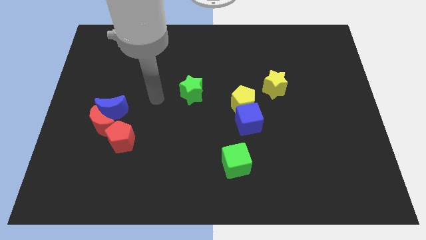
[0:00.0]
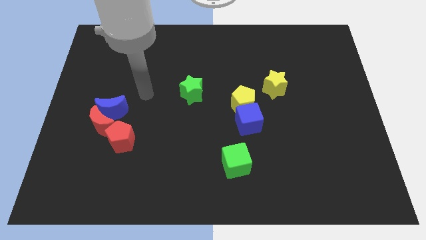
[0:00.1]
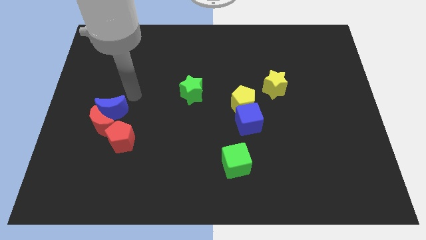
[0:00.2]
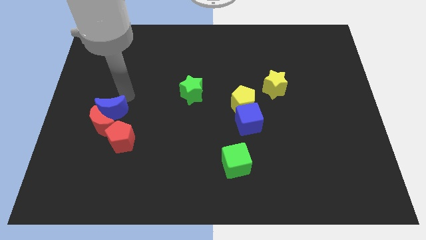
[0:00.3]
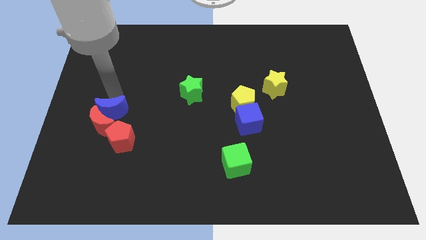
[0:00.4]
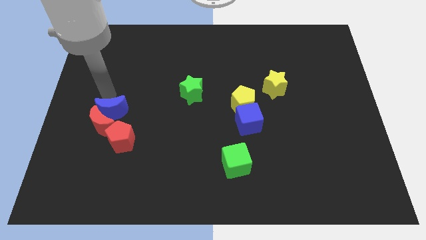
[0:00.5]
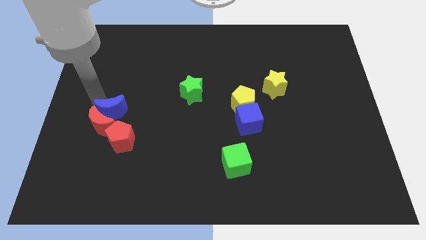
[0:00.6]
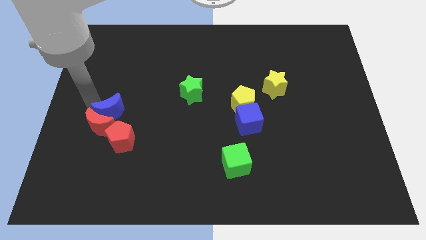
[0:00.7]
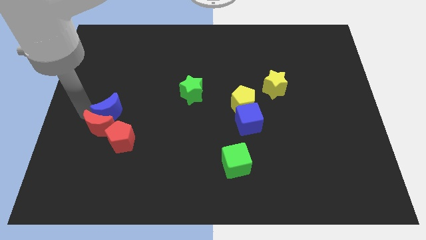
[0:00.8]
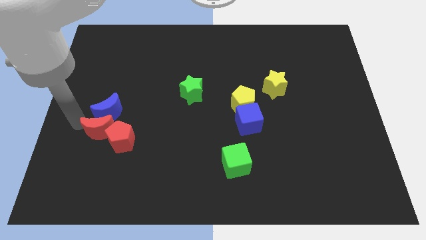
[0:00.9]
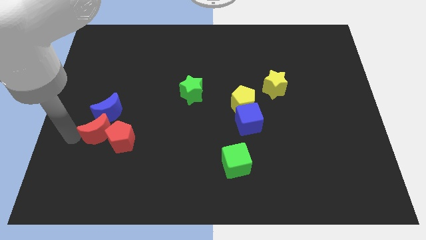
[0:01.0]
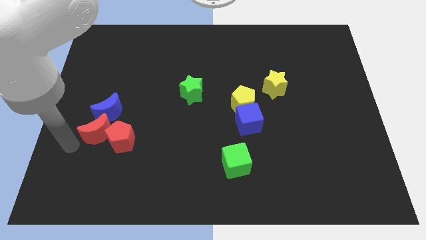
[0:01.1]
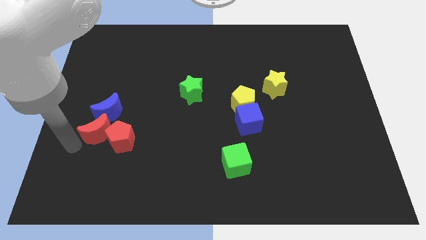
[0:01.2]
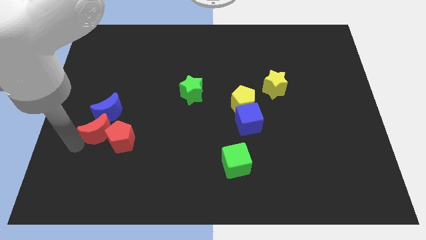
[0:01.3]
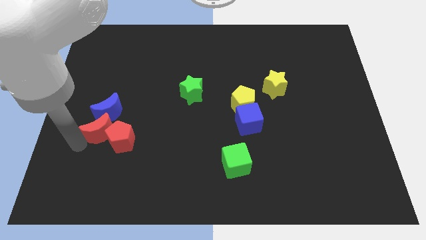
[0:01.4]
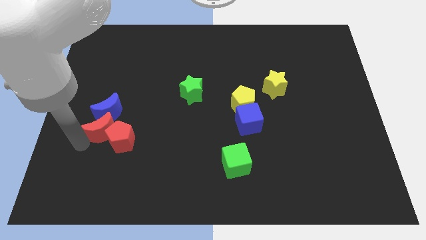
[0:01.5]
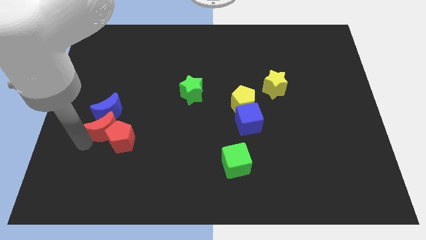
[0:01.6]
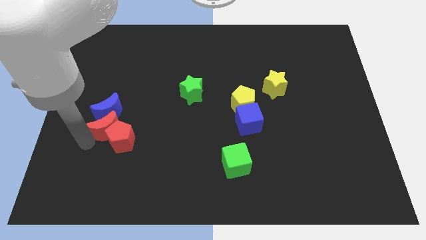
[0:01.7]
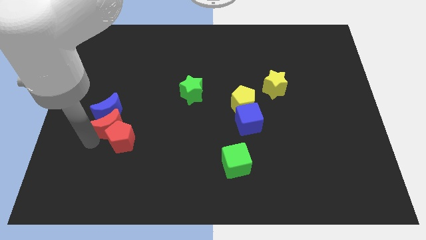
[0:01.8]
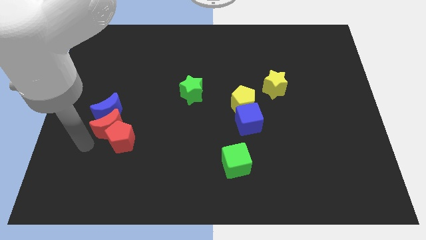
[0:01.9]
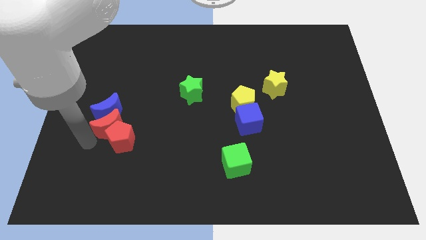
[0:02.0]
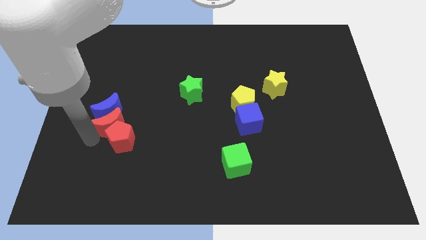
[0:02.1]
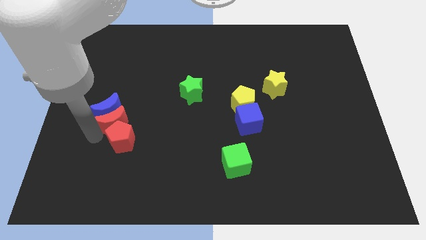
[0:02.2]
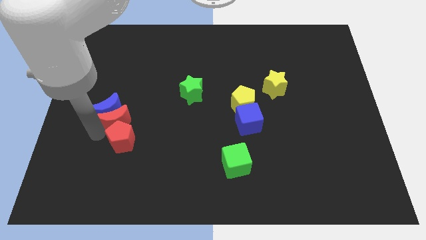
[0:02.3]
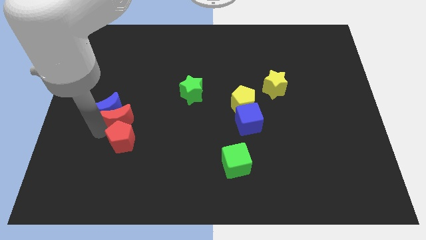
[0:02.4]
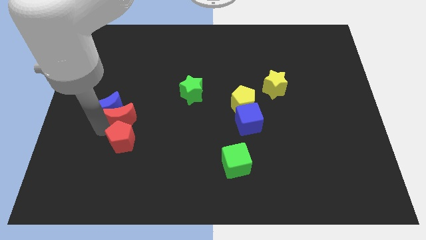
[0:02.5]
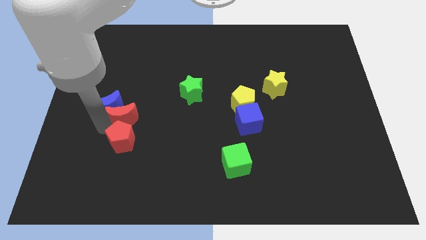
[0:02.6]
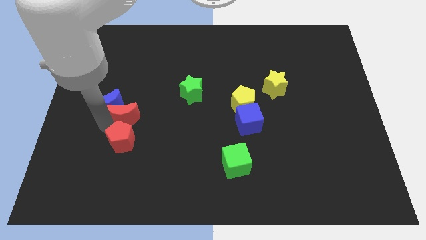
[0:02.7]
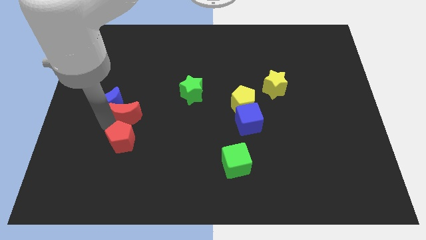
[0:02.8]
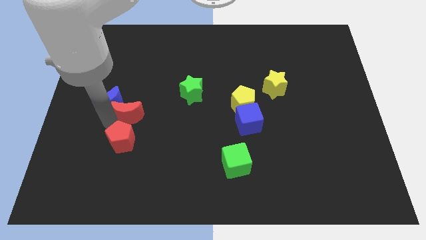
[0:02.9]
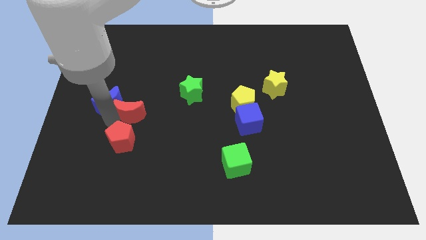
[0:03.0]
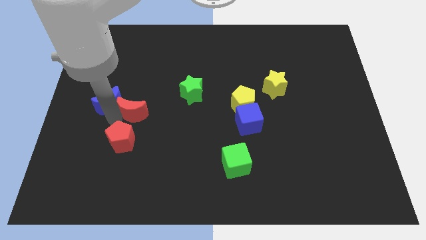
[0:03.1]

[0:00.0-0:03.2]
push the red moon up and then to the right a bit

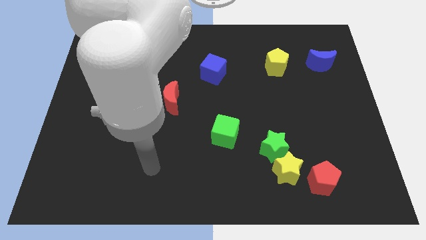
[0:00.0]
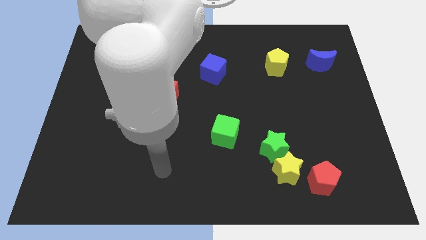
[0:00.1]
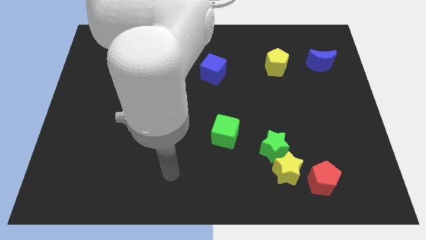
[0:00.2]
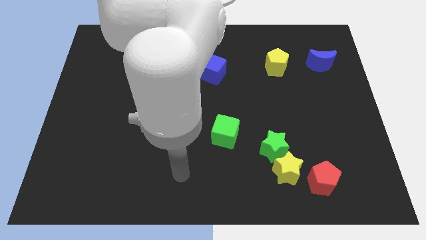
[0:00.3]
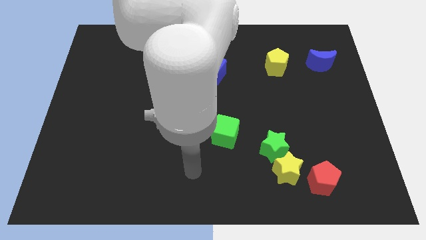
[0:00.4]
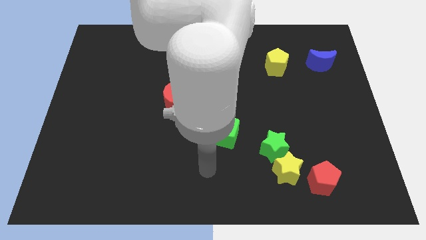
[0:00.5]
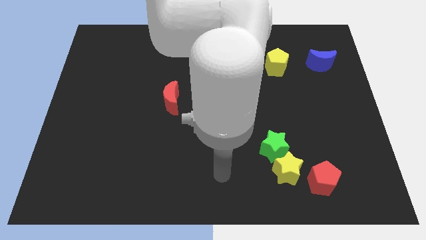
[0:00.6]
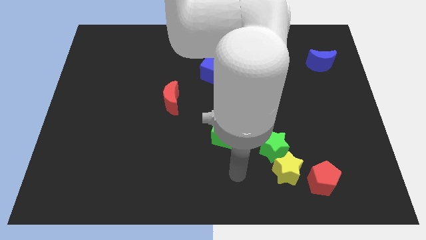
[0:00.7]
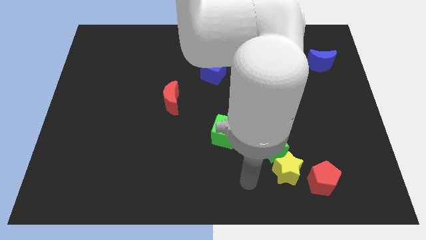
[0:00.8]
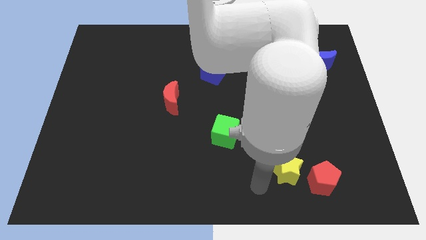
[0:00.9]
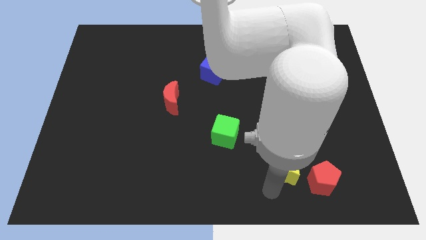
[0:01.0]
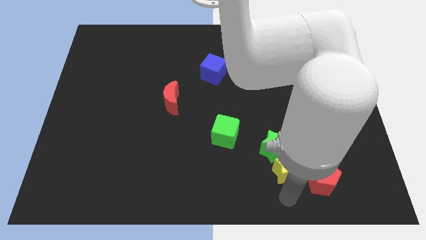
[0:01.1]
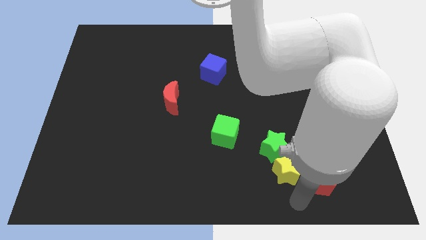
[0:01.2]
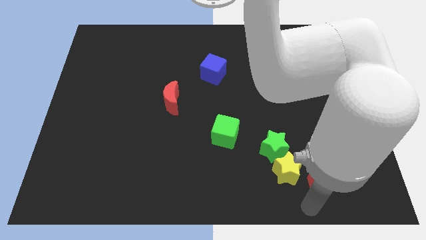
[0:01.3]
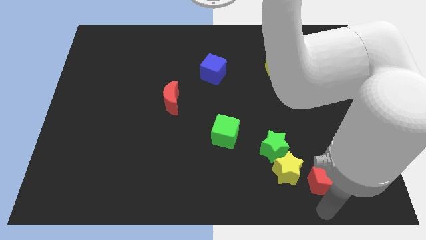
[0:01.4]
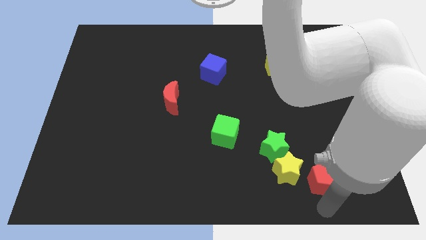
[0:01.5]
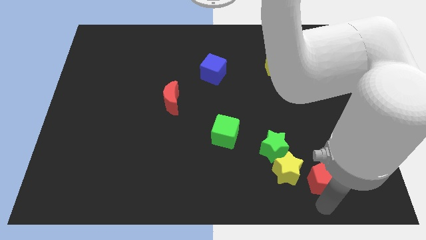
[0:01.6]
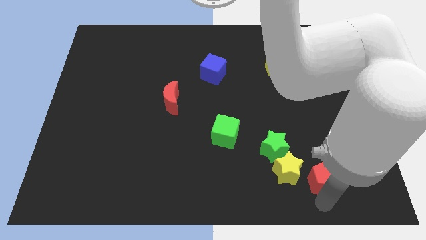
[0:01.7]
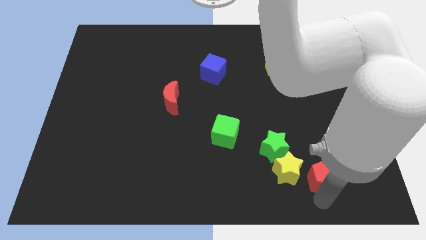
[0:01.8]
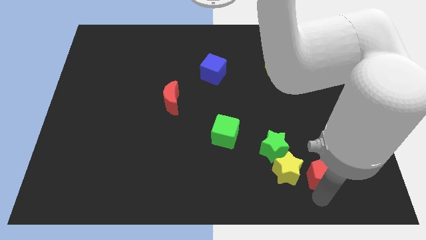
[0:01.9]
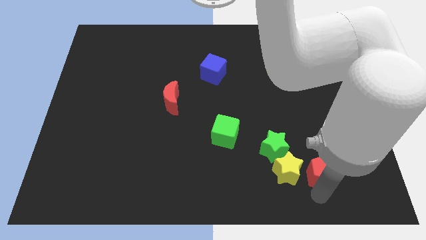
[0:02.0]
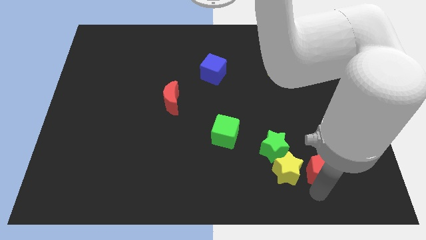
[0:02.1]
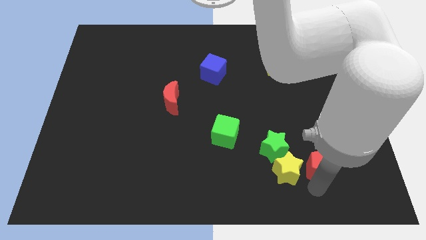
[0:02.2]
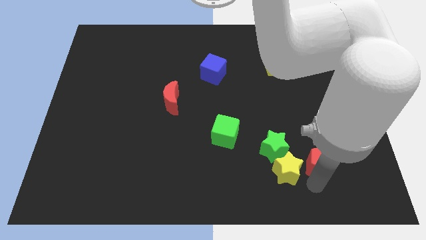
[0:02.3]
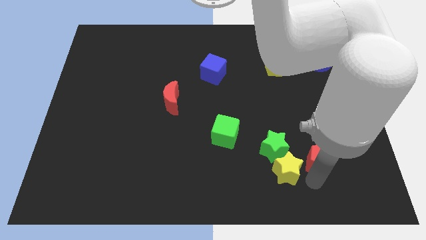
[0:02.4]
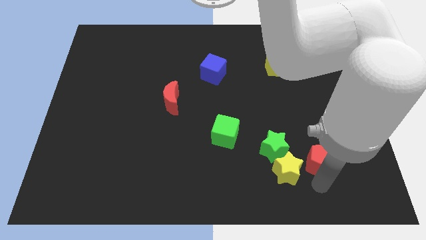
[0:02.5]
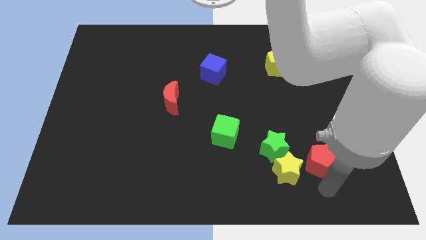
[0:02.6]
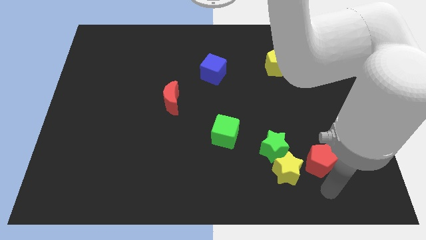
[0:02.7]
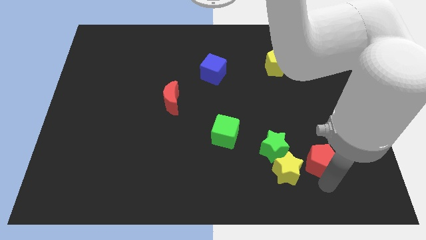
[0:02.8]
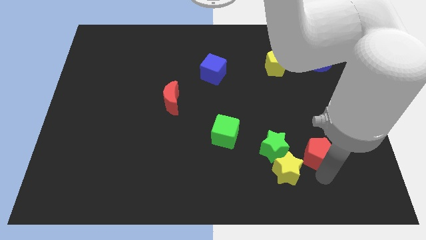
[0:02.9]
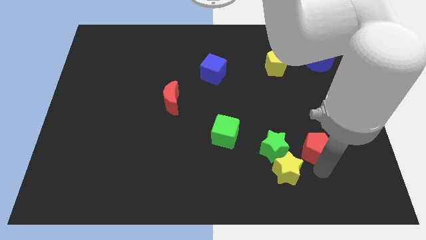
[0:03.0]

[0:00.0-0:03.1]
slightly move the red pentagon up

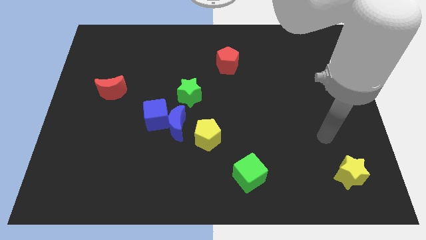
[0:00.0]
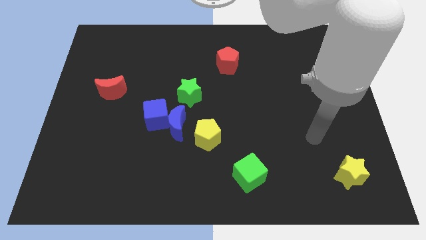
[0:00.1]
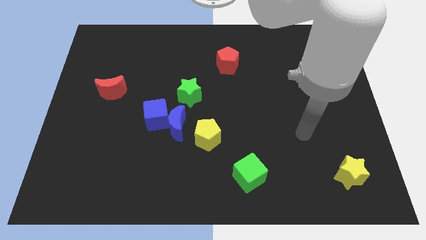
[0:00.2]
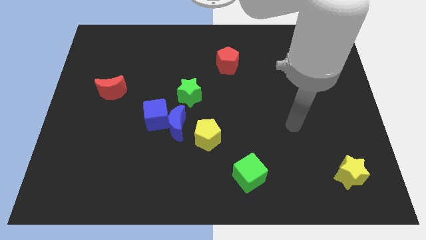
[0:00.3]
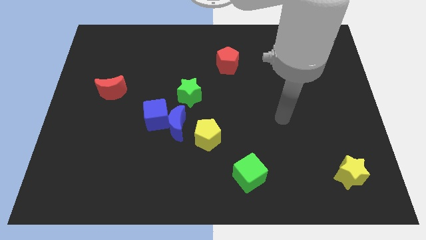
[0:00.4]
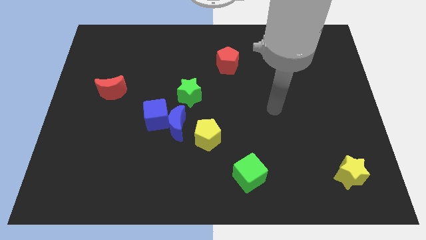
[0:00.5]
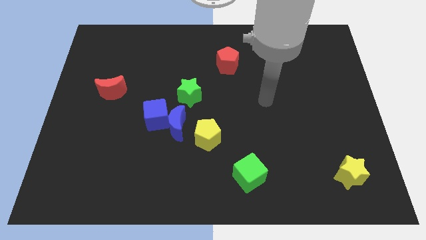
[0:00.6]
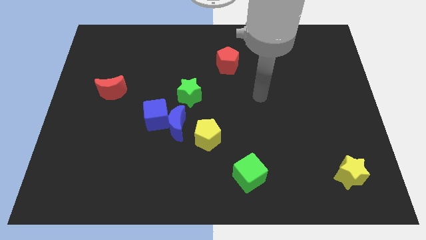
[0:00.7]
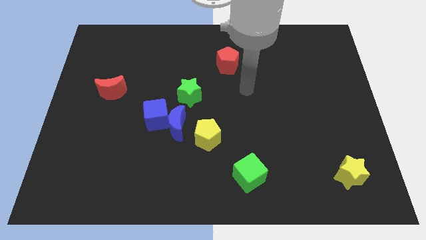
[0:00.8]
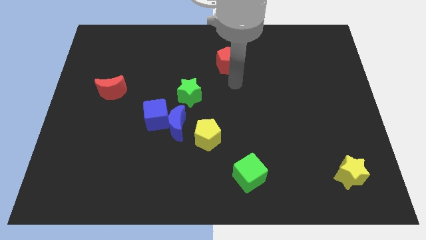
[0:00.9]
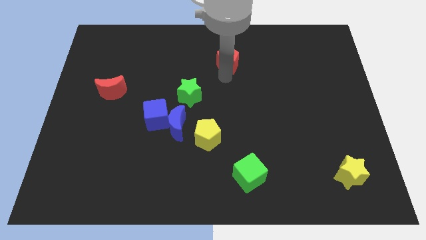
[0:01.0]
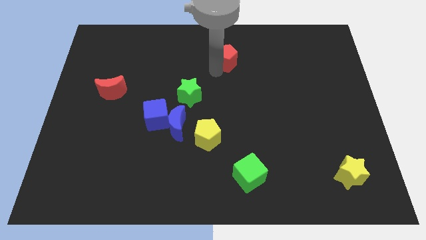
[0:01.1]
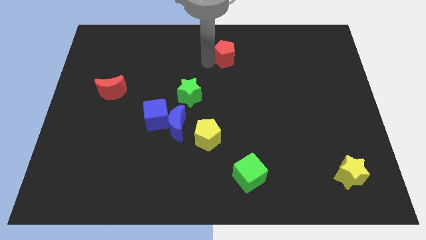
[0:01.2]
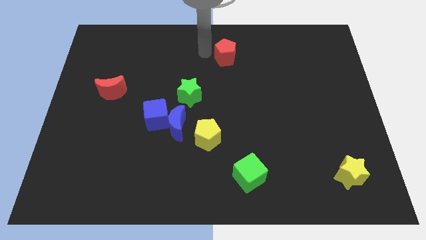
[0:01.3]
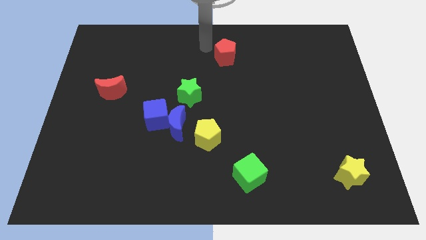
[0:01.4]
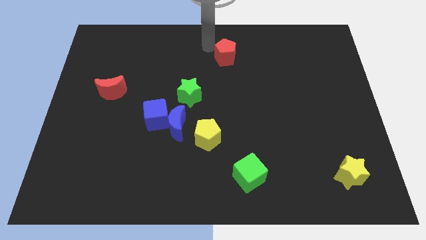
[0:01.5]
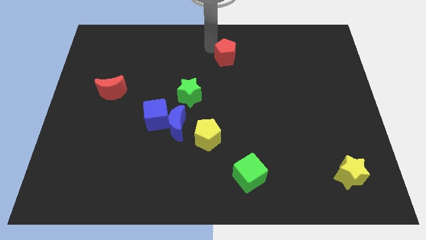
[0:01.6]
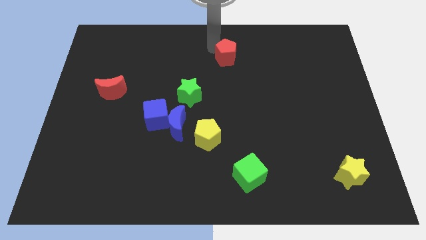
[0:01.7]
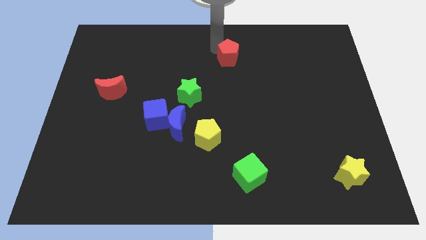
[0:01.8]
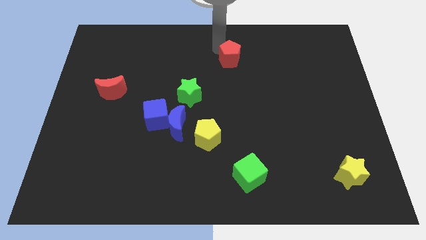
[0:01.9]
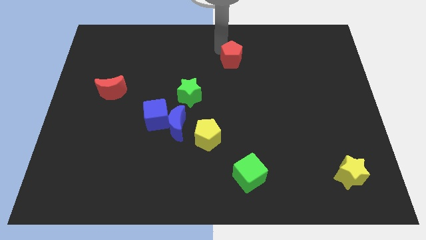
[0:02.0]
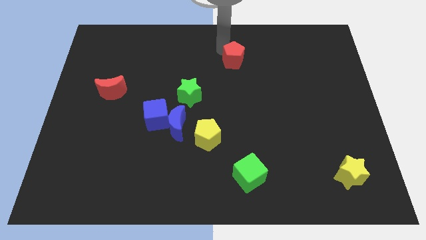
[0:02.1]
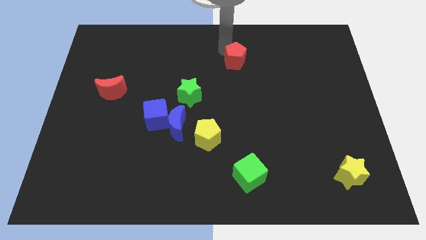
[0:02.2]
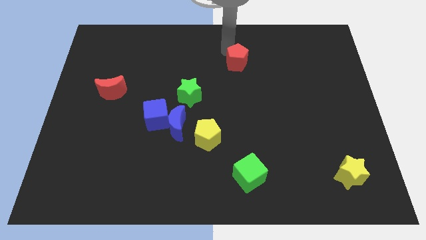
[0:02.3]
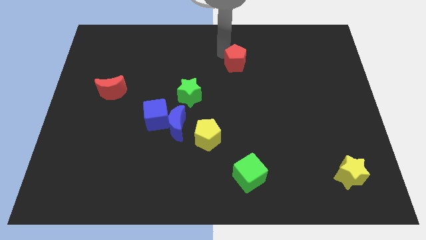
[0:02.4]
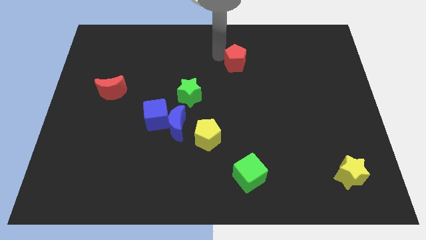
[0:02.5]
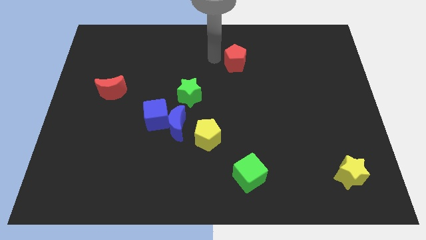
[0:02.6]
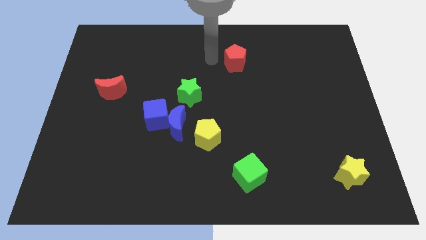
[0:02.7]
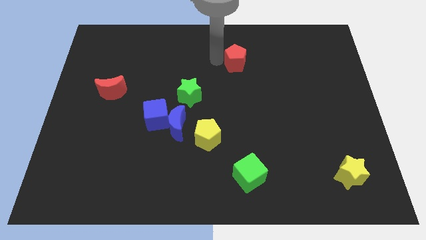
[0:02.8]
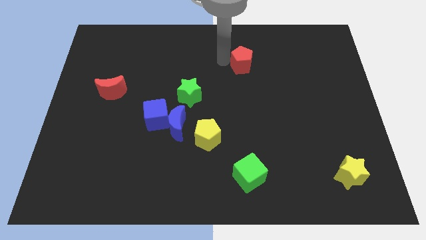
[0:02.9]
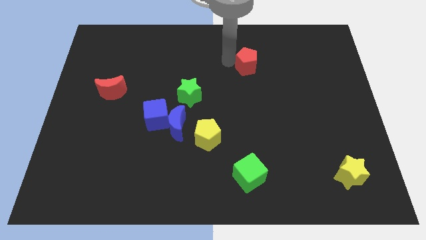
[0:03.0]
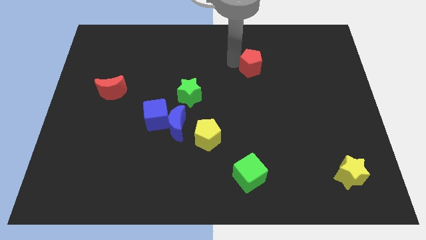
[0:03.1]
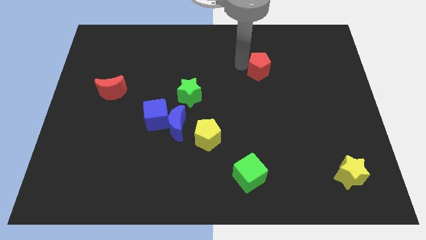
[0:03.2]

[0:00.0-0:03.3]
slightly push the red pentagon right
